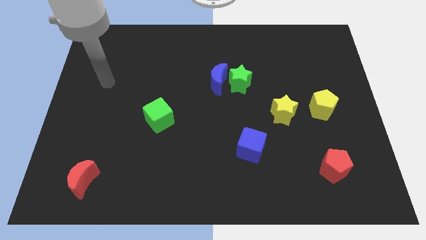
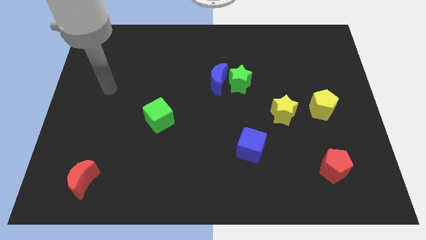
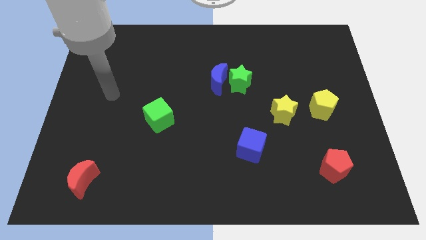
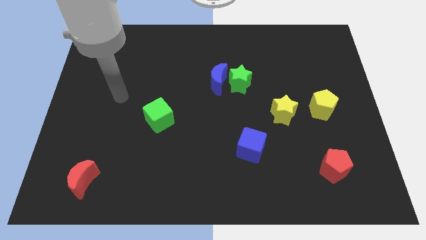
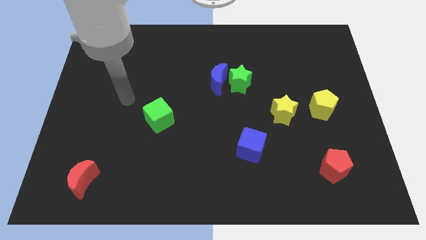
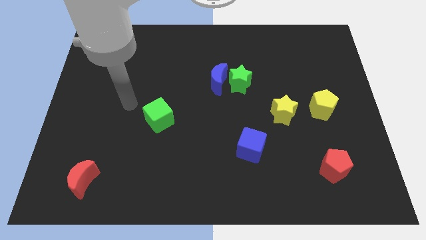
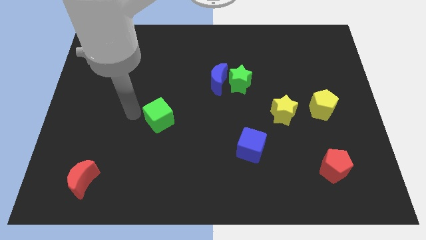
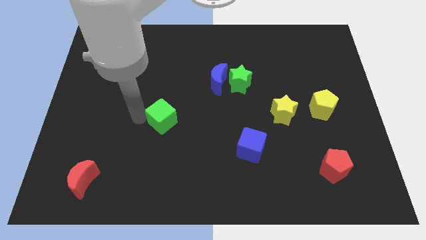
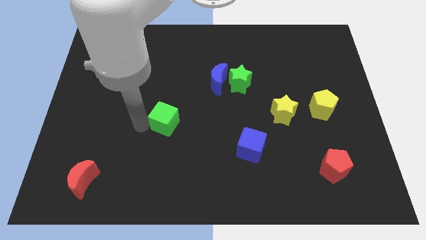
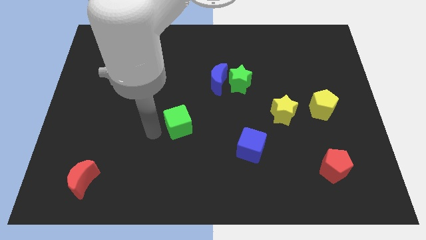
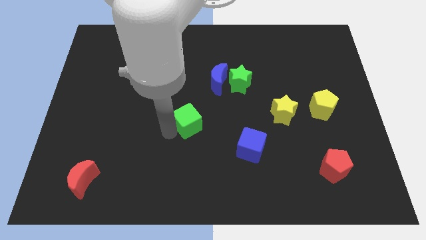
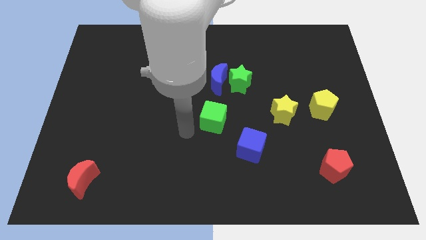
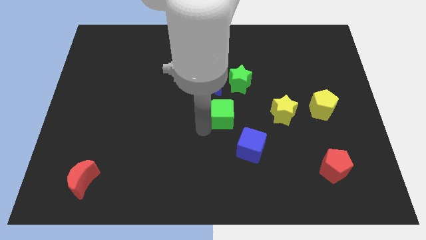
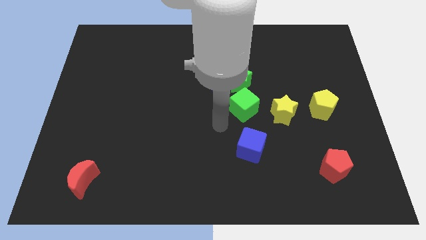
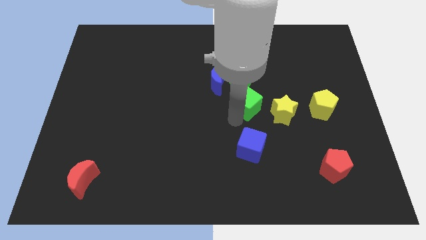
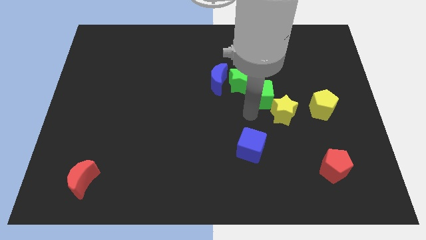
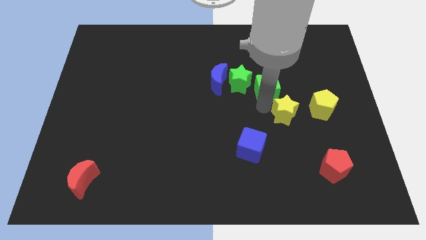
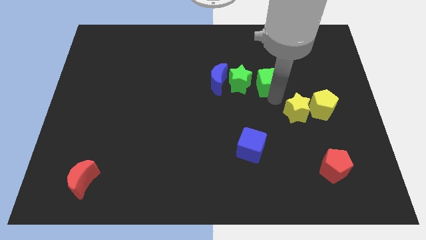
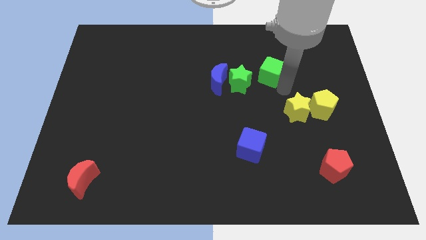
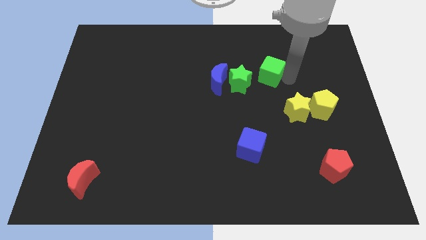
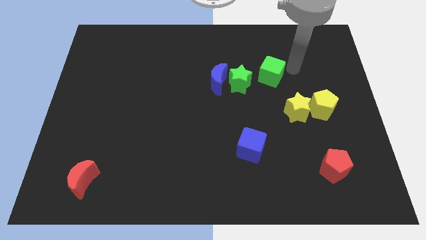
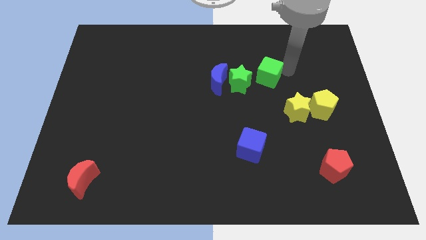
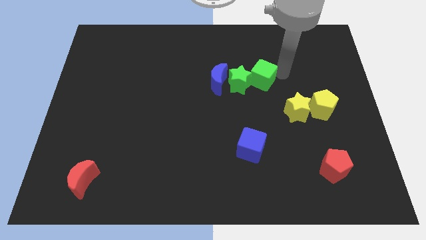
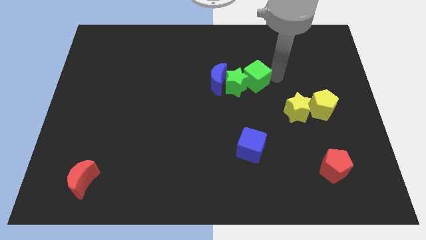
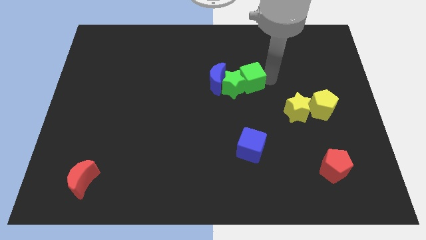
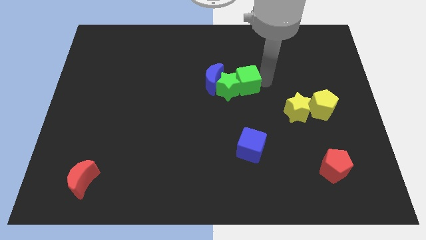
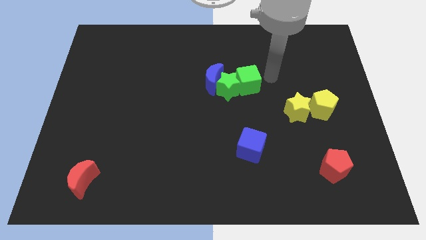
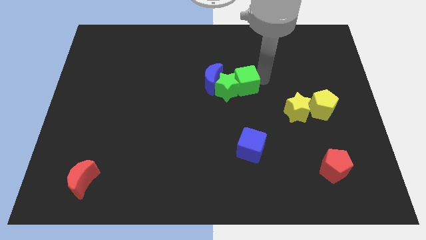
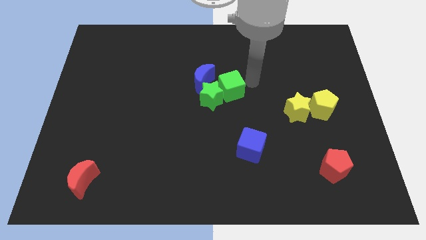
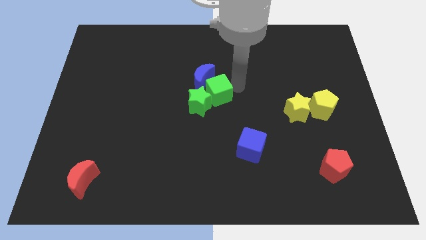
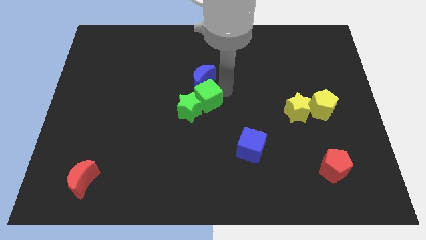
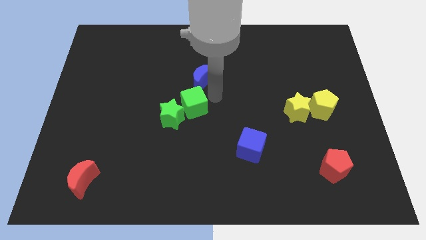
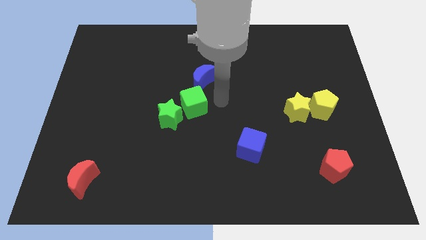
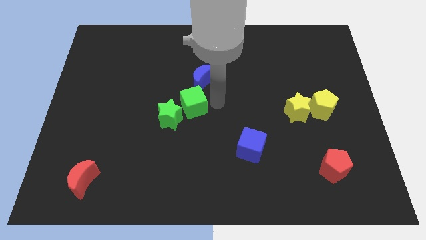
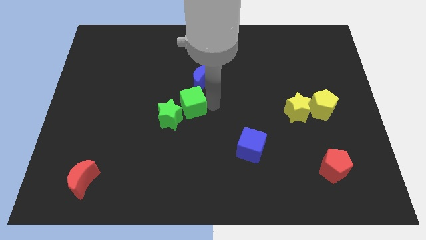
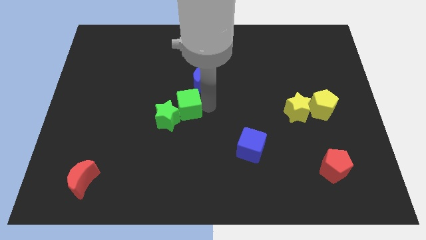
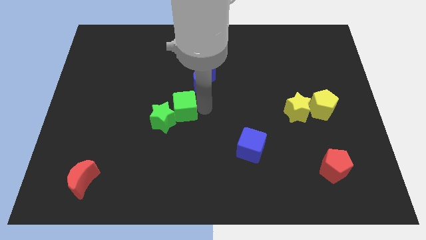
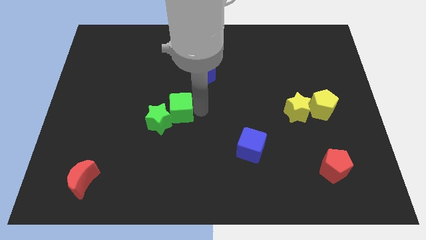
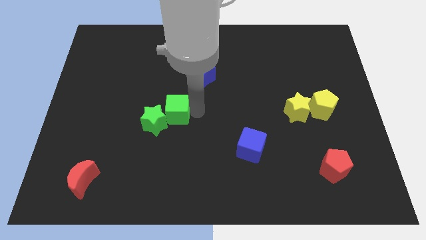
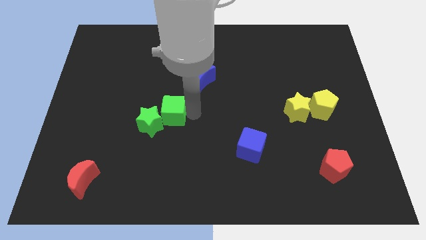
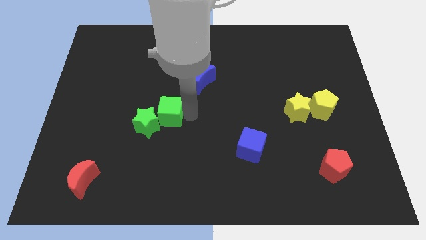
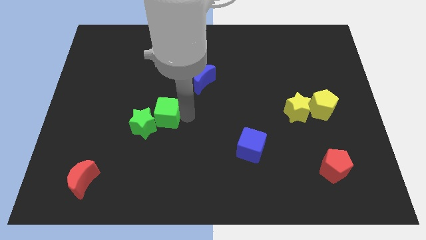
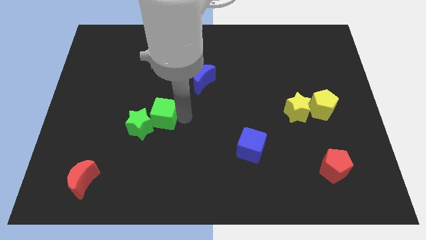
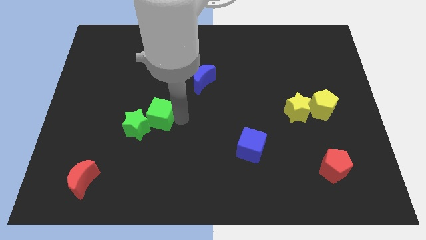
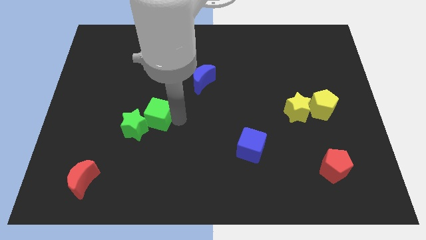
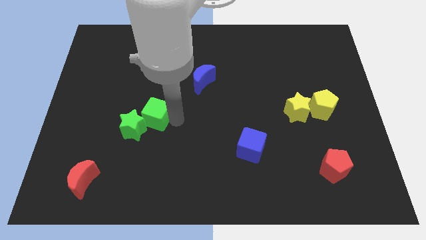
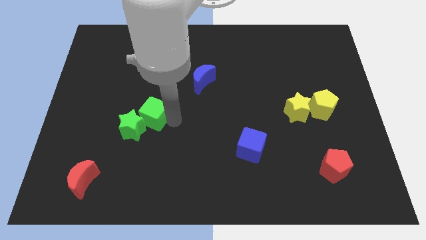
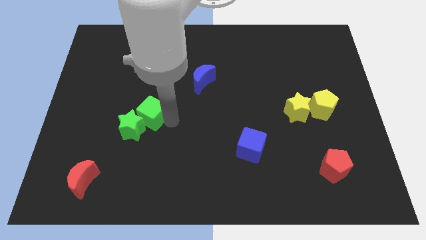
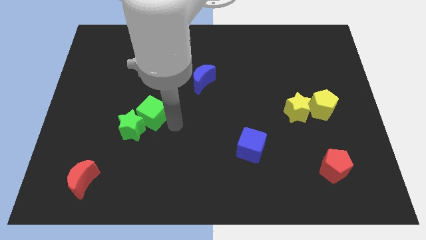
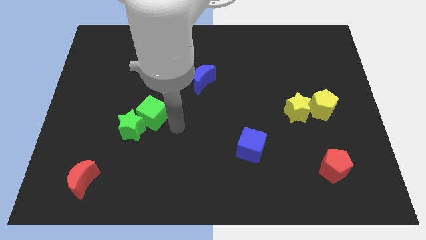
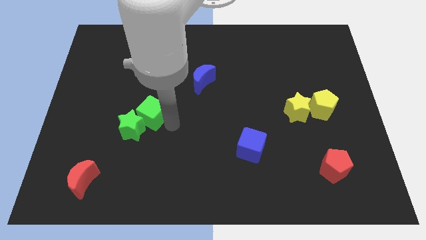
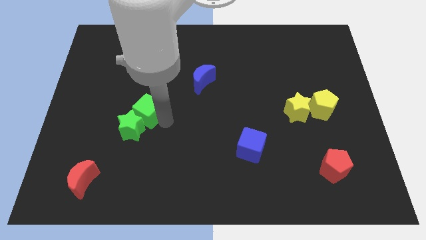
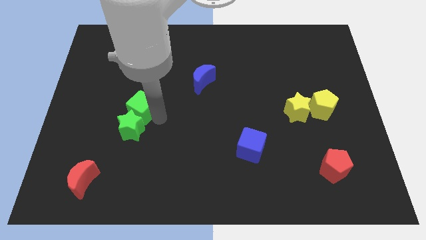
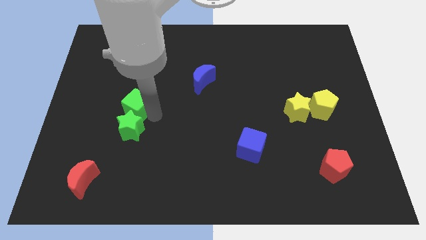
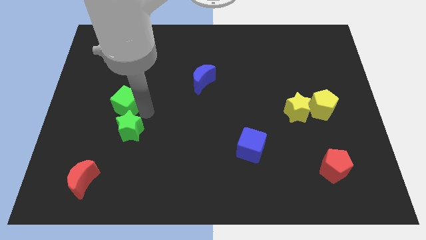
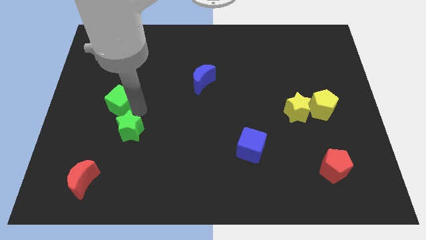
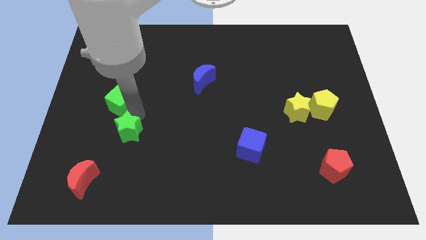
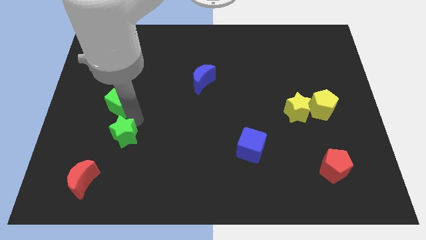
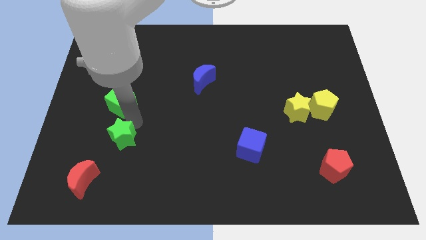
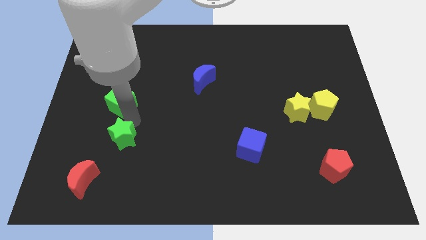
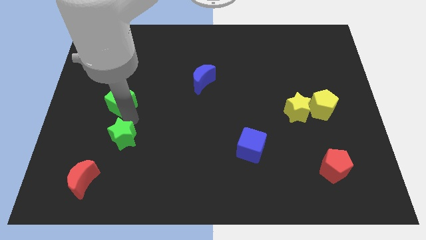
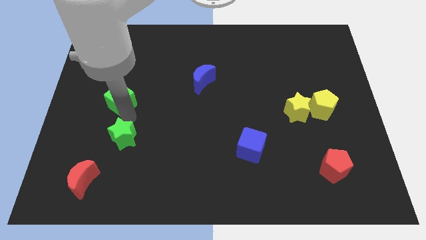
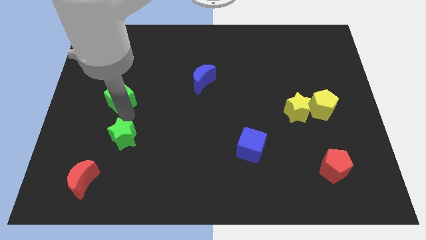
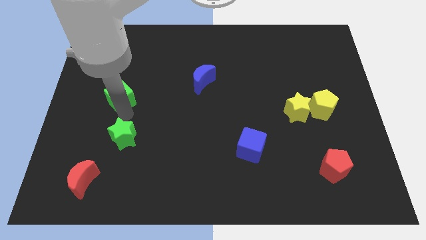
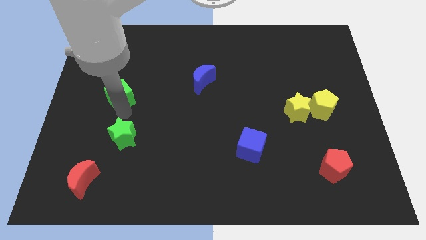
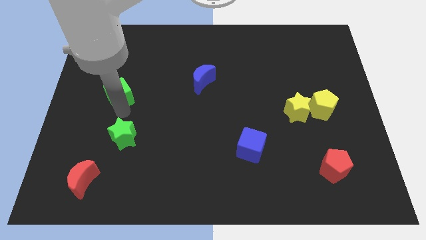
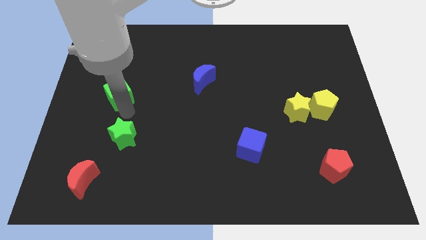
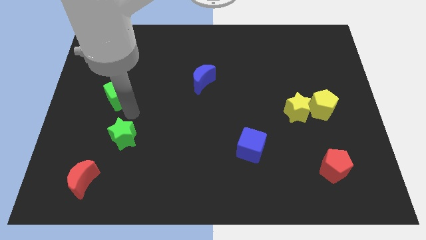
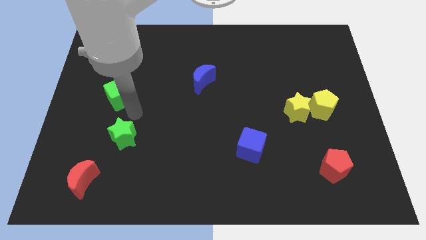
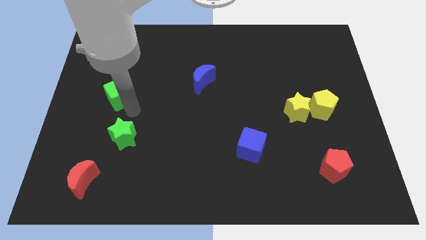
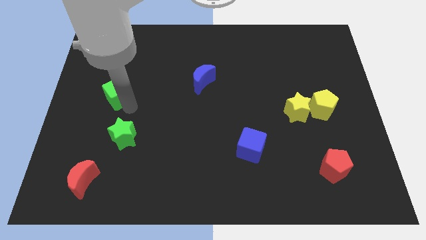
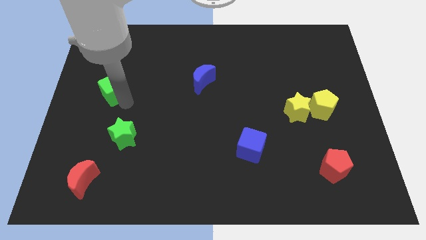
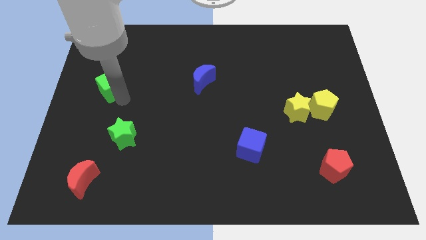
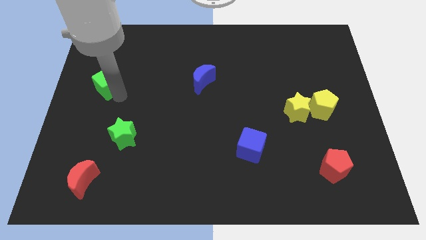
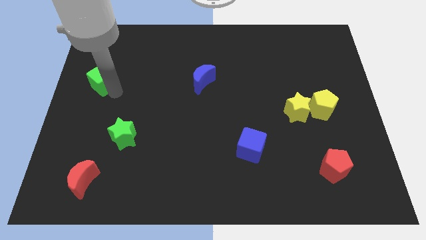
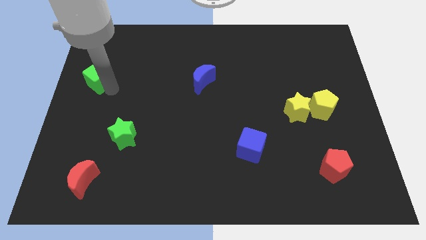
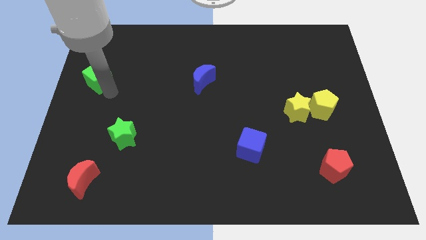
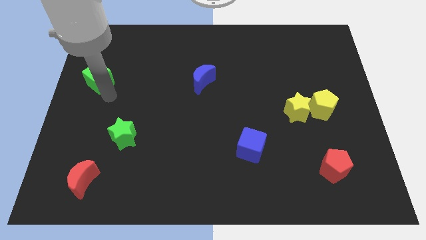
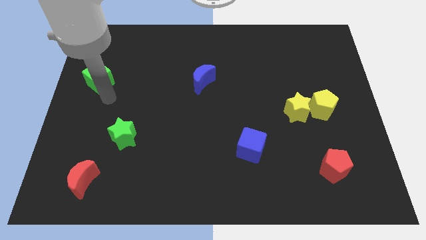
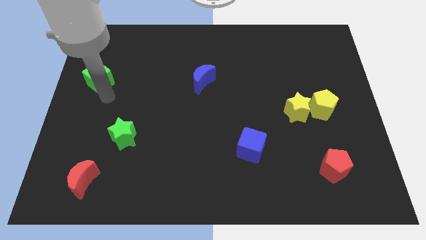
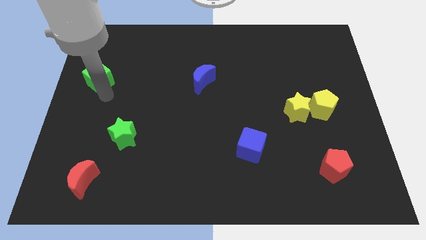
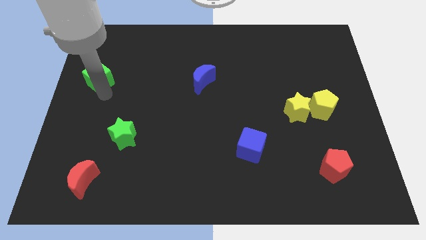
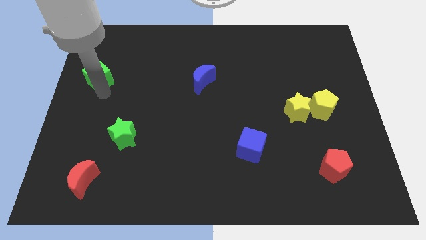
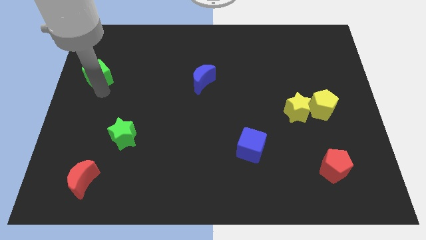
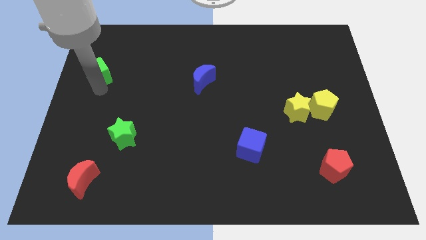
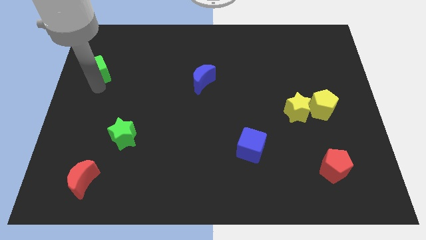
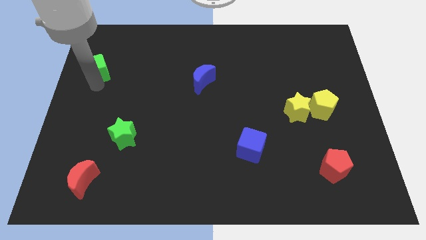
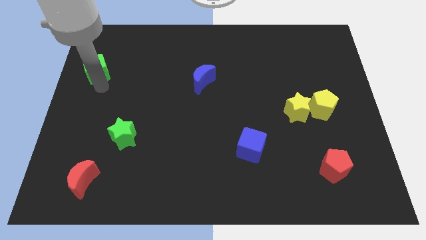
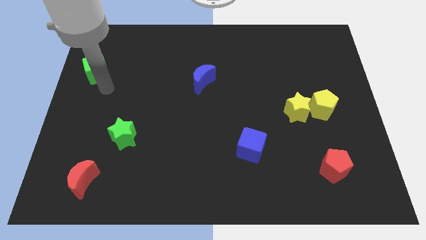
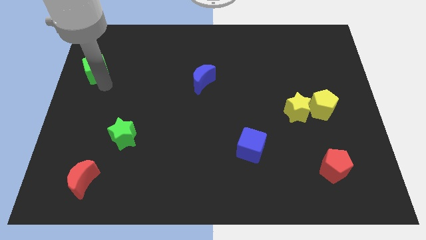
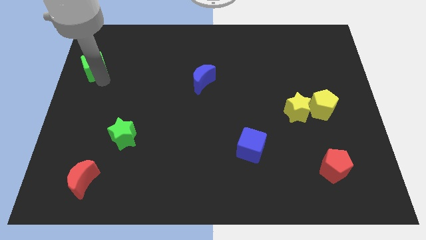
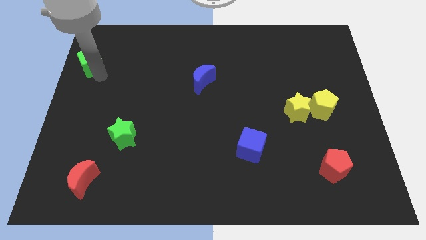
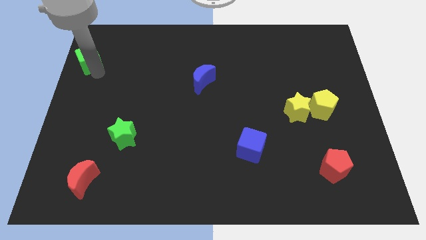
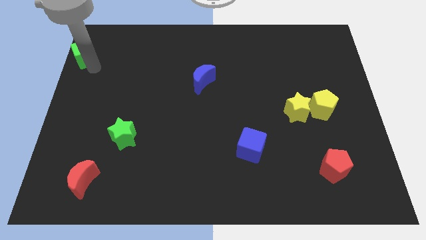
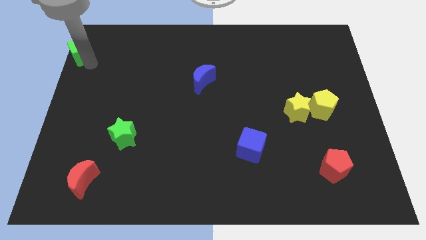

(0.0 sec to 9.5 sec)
slide the green cube to the top left corner
